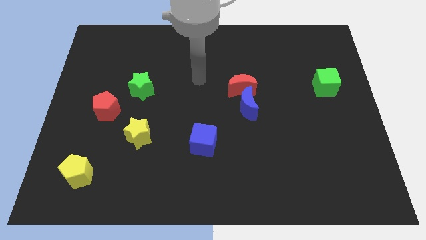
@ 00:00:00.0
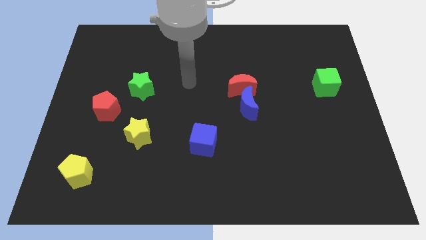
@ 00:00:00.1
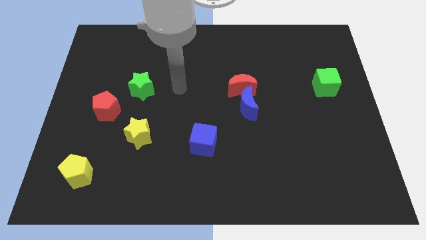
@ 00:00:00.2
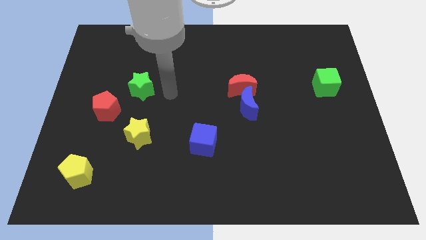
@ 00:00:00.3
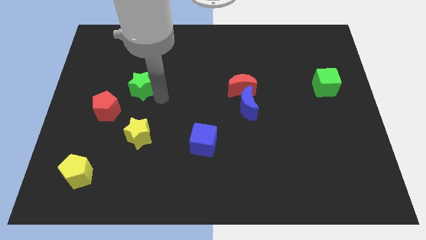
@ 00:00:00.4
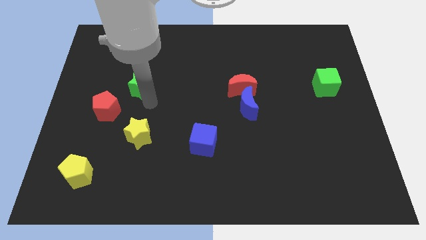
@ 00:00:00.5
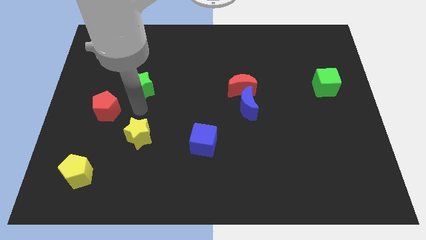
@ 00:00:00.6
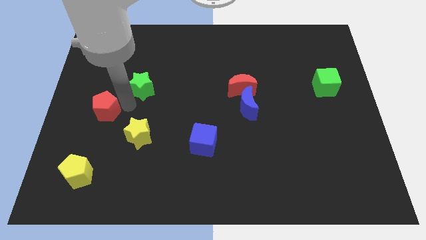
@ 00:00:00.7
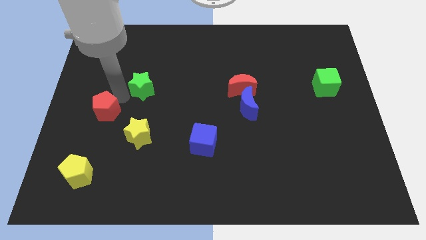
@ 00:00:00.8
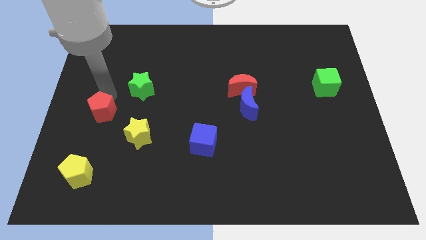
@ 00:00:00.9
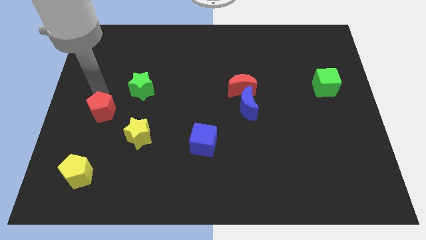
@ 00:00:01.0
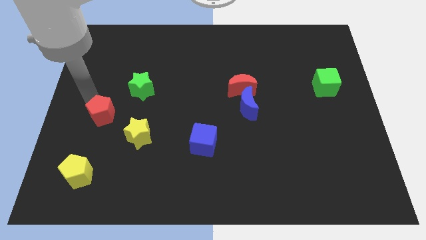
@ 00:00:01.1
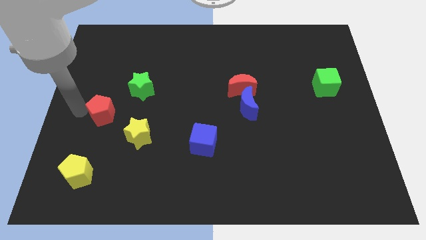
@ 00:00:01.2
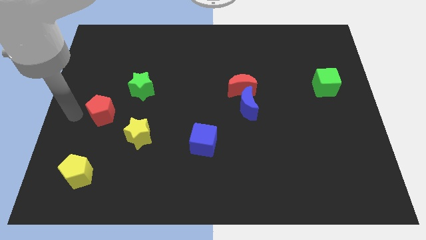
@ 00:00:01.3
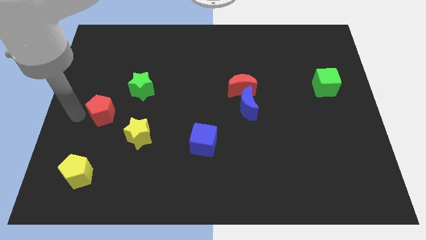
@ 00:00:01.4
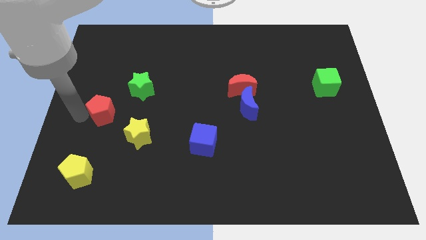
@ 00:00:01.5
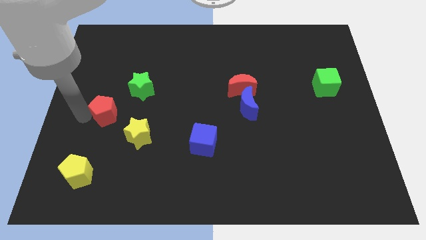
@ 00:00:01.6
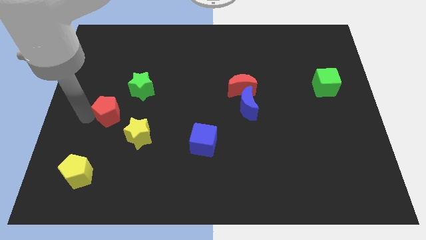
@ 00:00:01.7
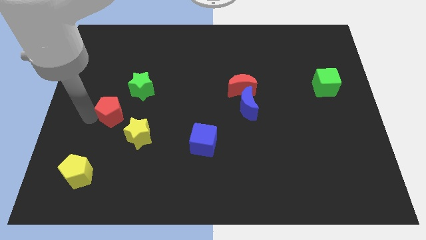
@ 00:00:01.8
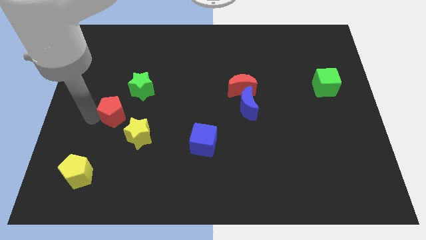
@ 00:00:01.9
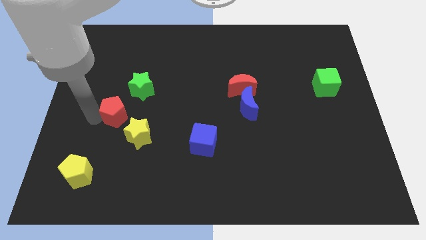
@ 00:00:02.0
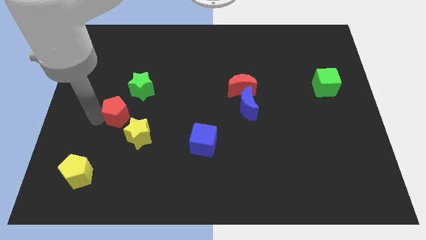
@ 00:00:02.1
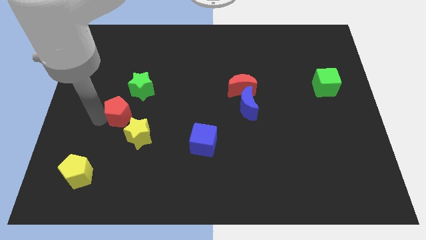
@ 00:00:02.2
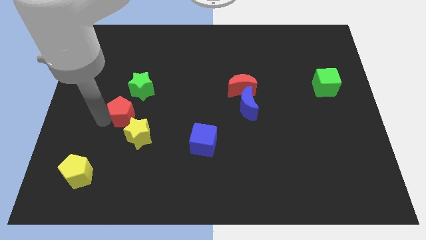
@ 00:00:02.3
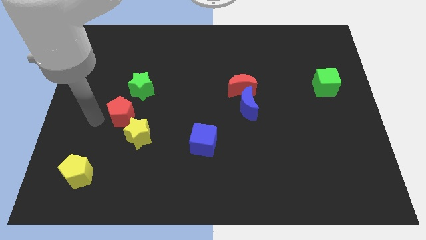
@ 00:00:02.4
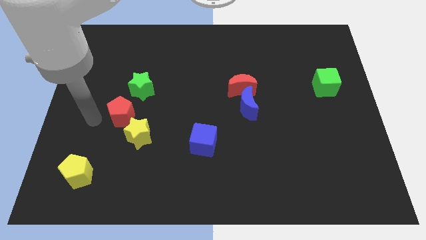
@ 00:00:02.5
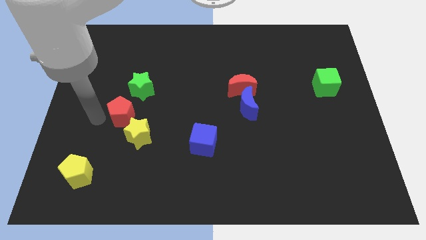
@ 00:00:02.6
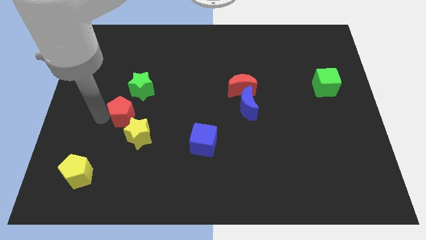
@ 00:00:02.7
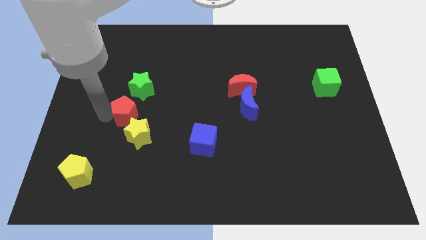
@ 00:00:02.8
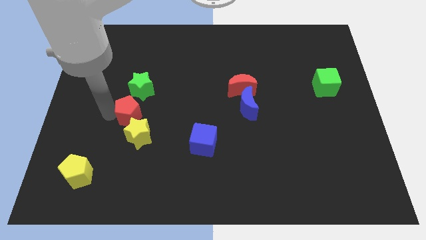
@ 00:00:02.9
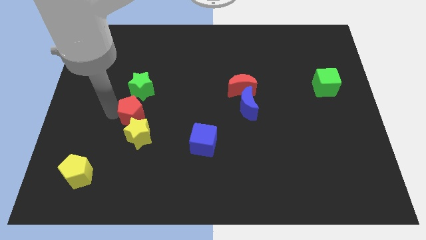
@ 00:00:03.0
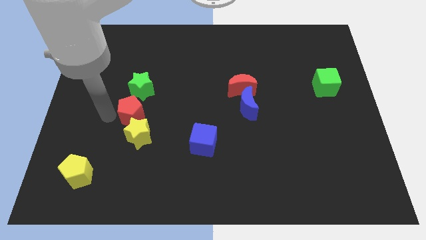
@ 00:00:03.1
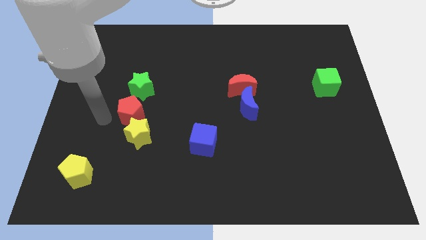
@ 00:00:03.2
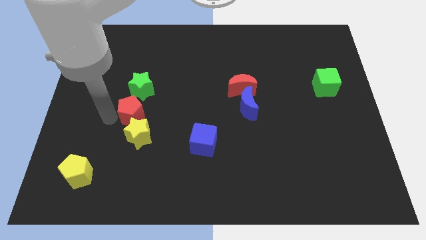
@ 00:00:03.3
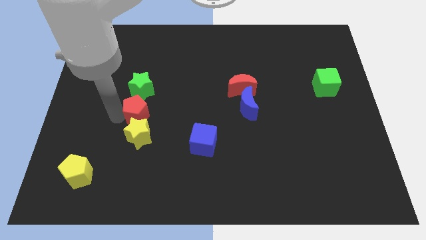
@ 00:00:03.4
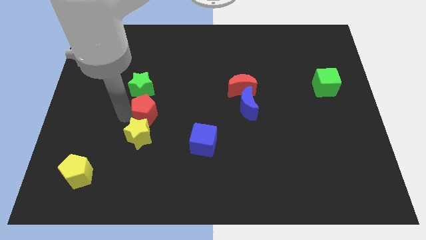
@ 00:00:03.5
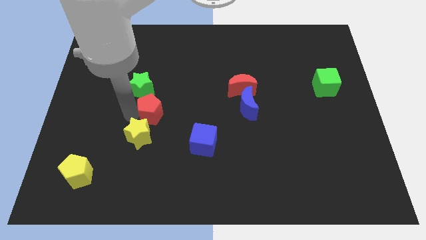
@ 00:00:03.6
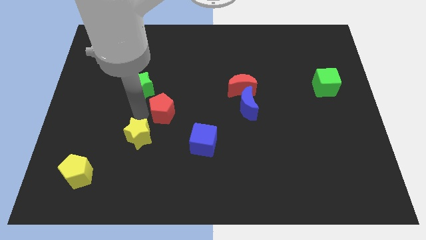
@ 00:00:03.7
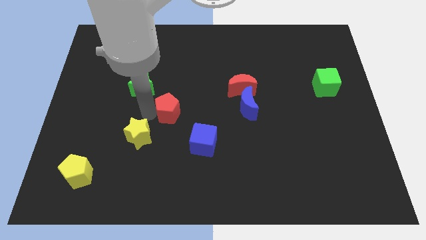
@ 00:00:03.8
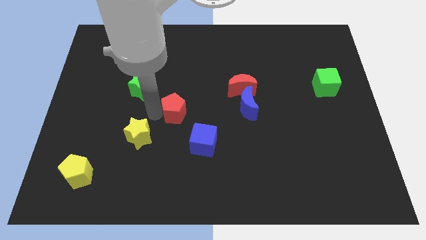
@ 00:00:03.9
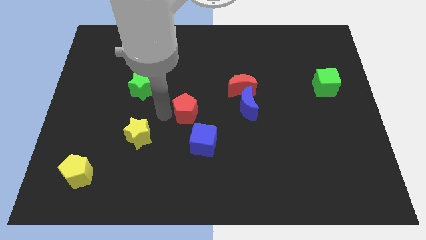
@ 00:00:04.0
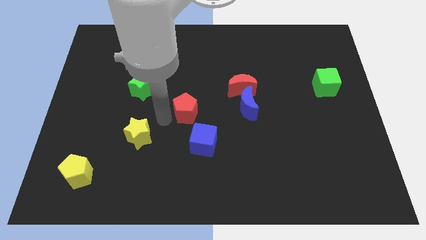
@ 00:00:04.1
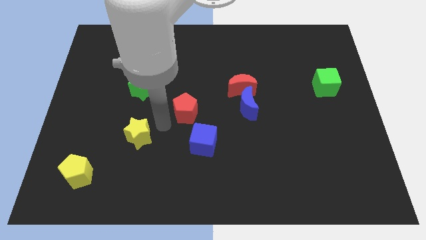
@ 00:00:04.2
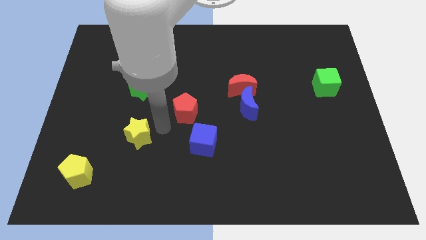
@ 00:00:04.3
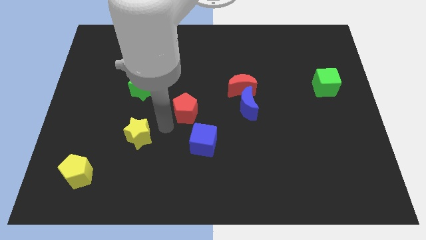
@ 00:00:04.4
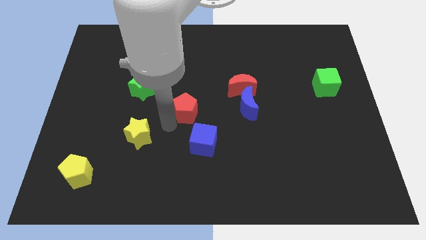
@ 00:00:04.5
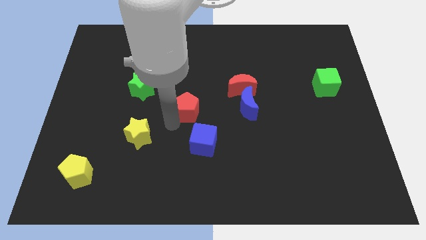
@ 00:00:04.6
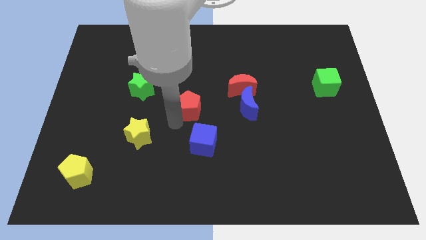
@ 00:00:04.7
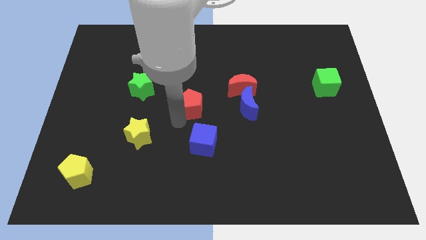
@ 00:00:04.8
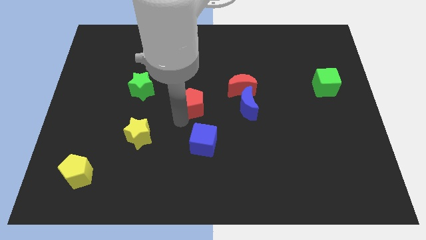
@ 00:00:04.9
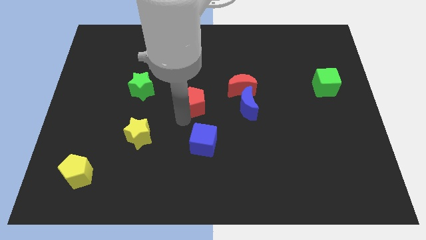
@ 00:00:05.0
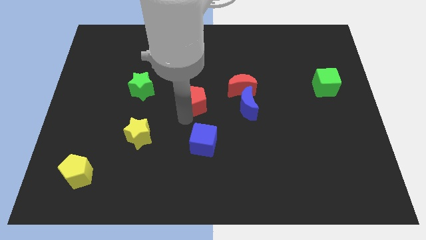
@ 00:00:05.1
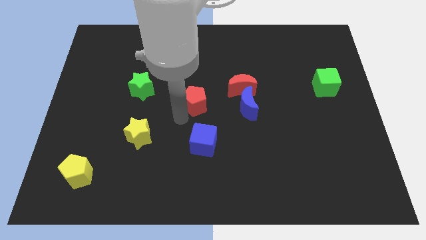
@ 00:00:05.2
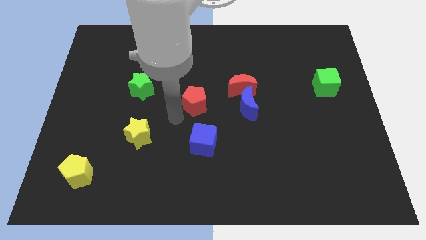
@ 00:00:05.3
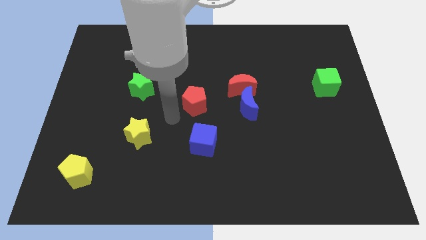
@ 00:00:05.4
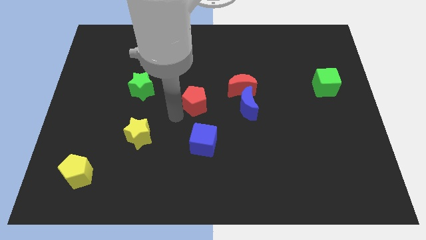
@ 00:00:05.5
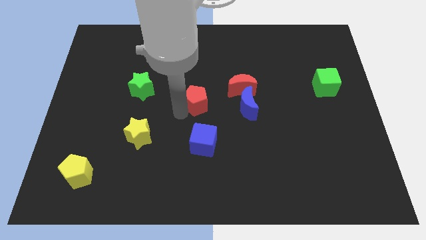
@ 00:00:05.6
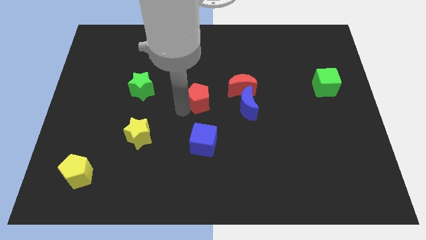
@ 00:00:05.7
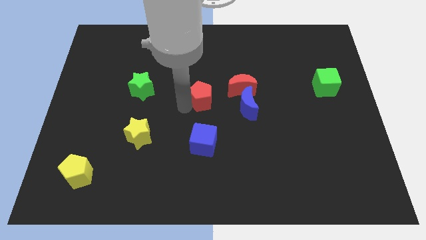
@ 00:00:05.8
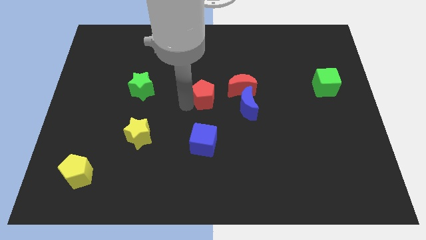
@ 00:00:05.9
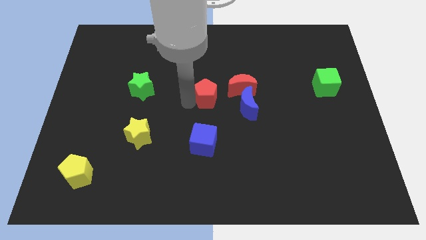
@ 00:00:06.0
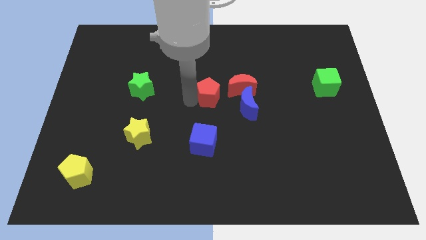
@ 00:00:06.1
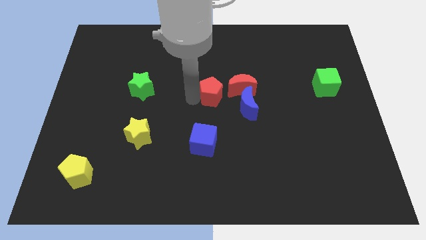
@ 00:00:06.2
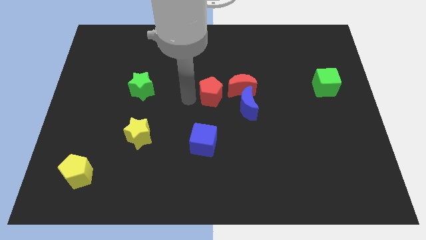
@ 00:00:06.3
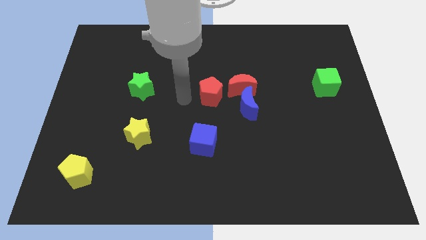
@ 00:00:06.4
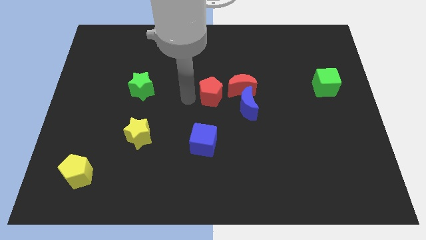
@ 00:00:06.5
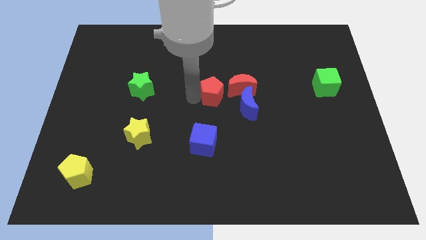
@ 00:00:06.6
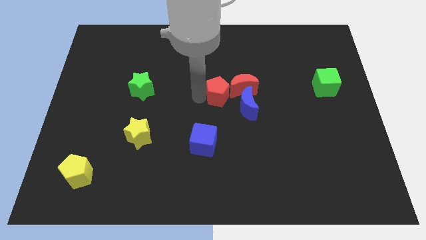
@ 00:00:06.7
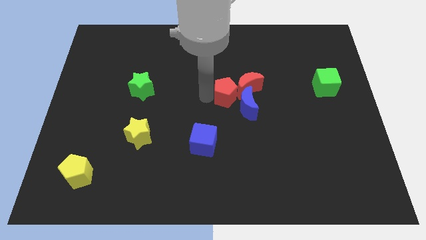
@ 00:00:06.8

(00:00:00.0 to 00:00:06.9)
push the red pentagon close to the red moon
